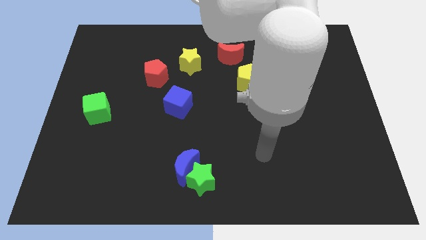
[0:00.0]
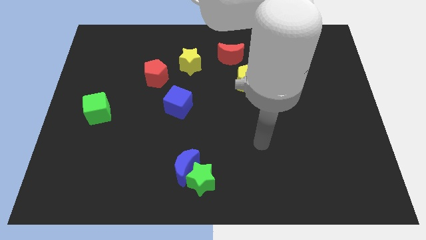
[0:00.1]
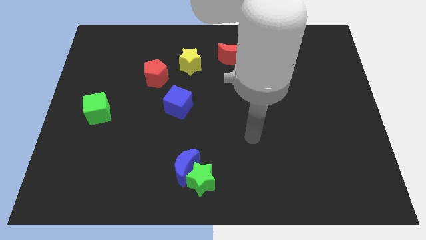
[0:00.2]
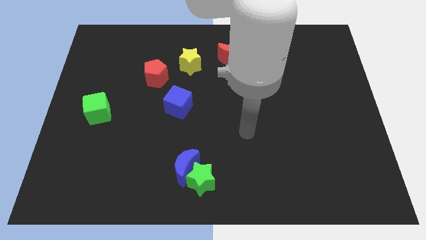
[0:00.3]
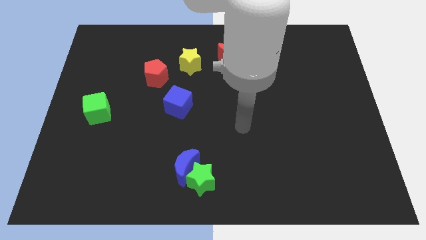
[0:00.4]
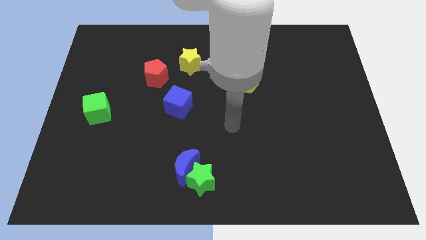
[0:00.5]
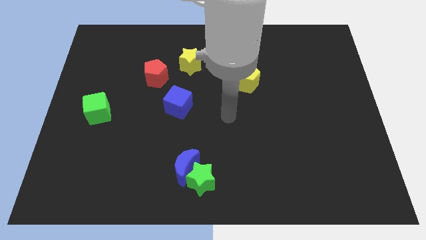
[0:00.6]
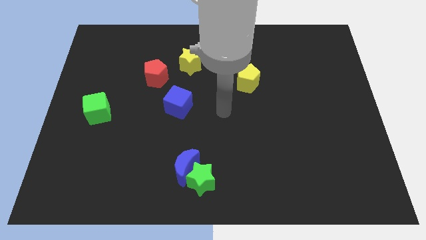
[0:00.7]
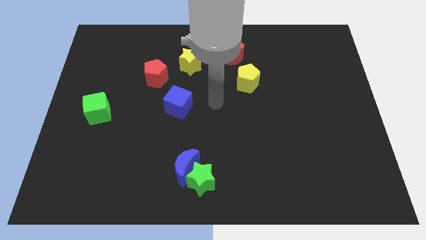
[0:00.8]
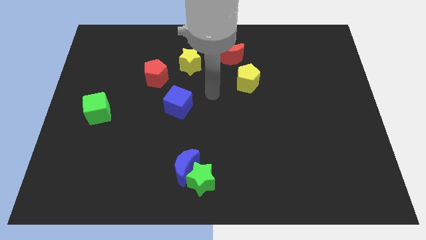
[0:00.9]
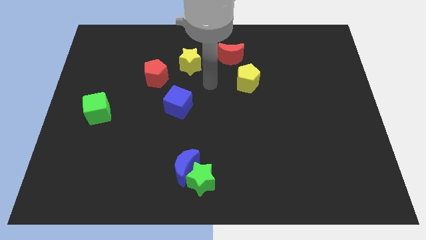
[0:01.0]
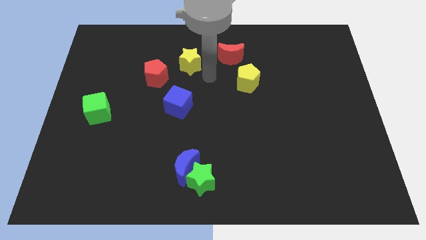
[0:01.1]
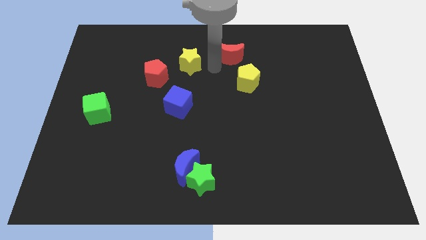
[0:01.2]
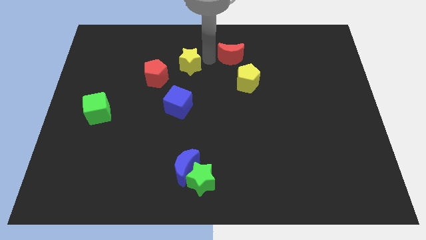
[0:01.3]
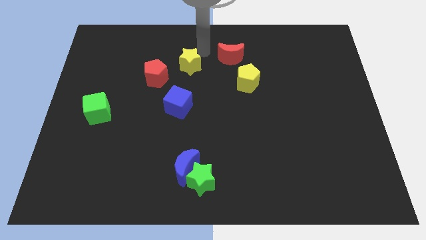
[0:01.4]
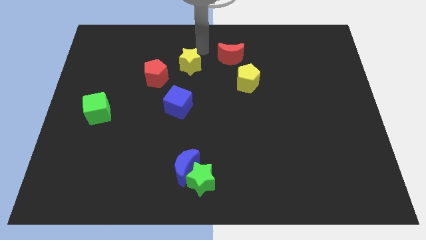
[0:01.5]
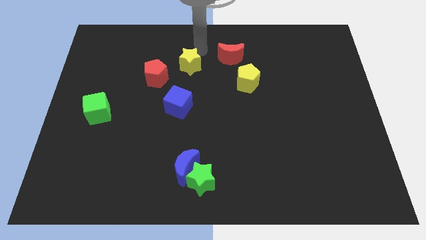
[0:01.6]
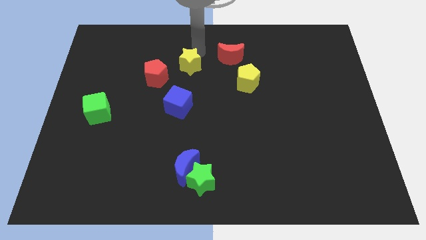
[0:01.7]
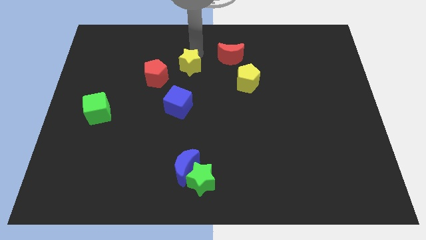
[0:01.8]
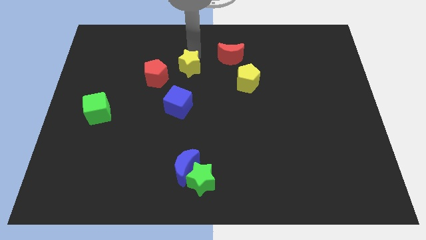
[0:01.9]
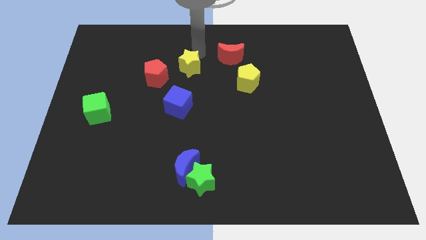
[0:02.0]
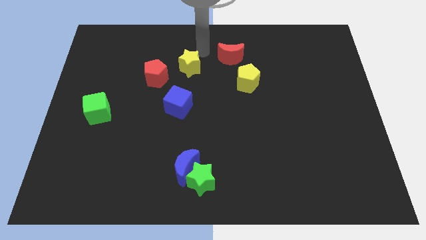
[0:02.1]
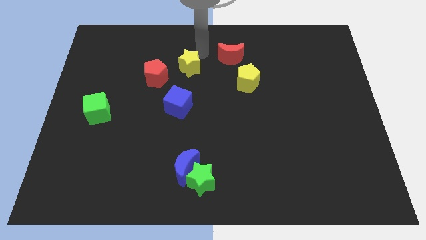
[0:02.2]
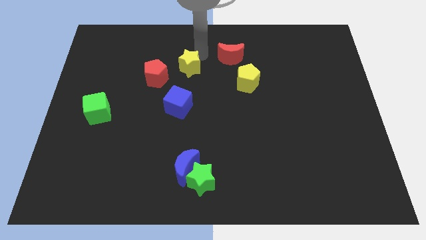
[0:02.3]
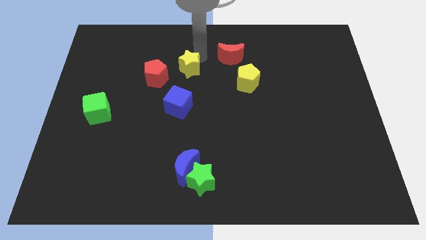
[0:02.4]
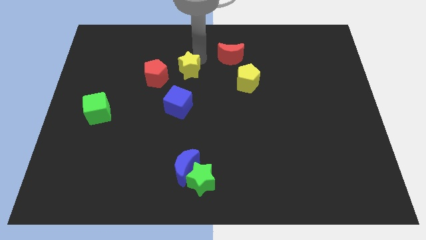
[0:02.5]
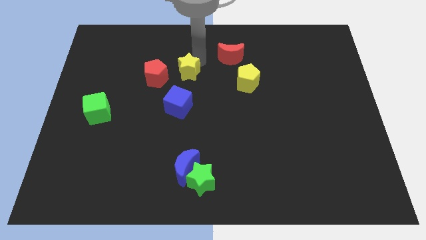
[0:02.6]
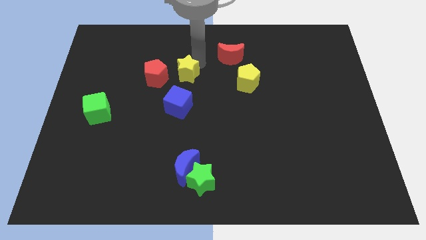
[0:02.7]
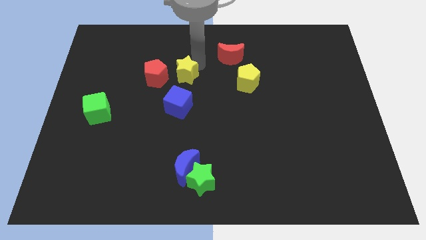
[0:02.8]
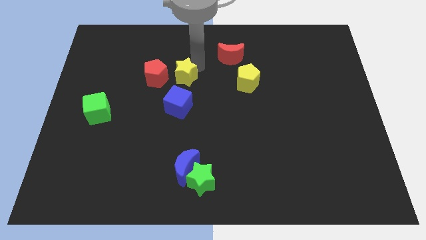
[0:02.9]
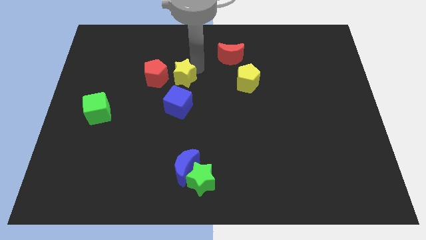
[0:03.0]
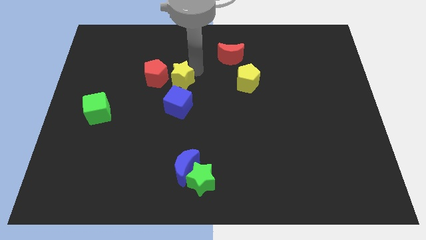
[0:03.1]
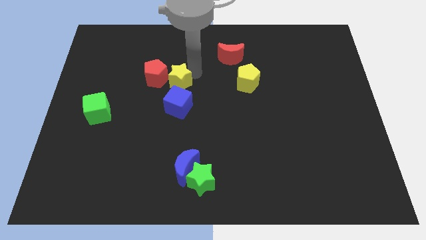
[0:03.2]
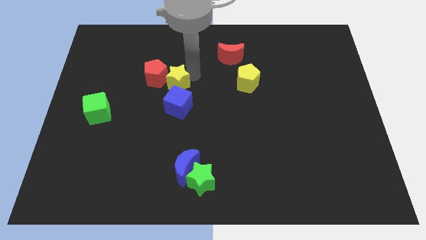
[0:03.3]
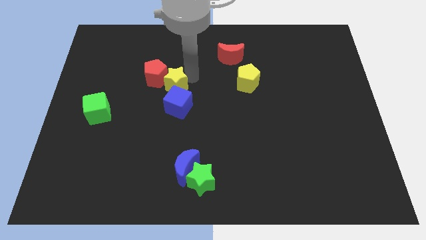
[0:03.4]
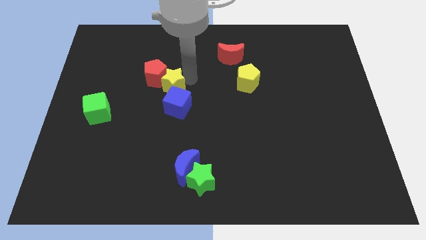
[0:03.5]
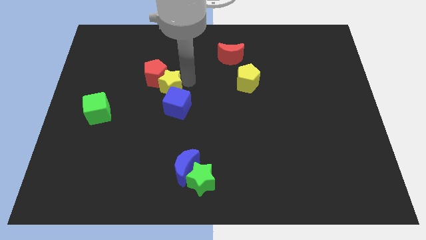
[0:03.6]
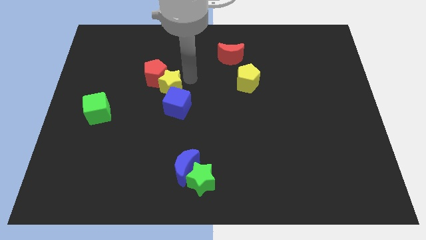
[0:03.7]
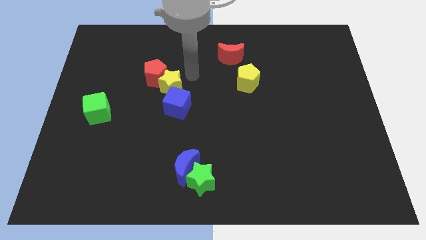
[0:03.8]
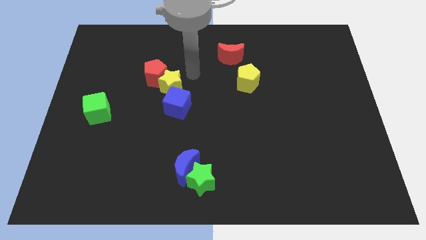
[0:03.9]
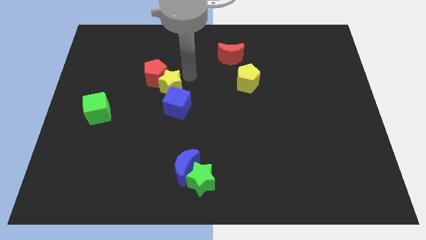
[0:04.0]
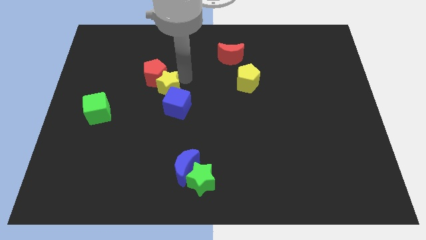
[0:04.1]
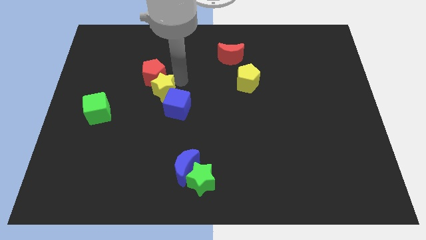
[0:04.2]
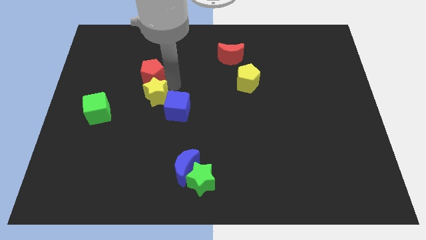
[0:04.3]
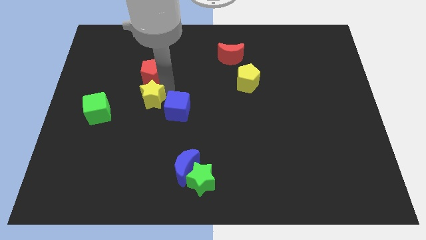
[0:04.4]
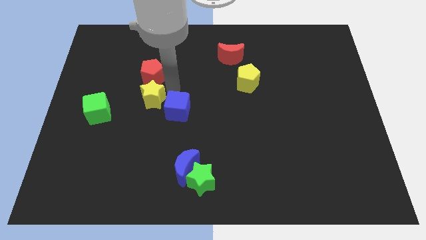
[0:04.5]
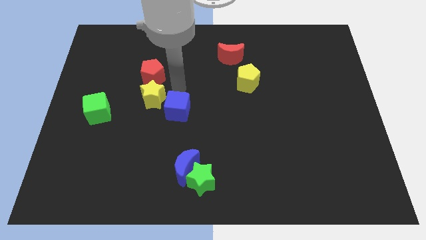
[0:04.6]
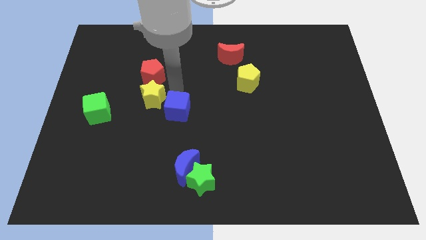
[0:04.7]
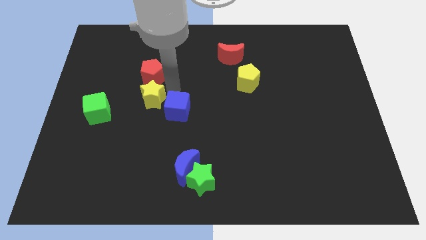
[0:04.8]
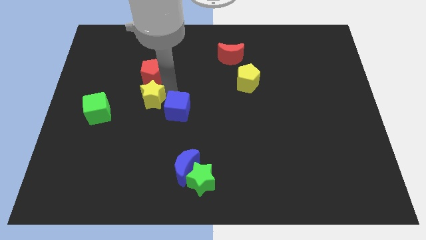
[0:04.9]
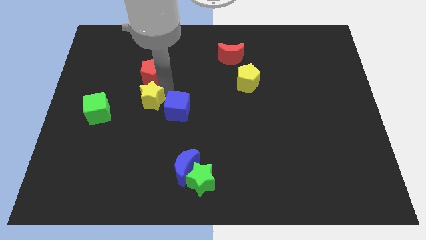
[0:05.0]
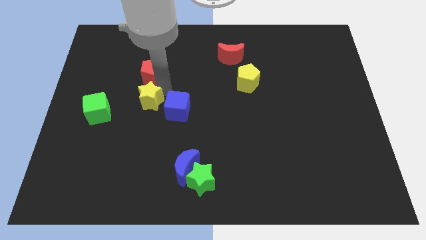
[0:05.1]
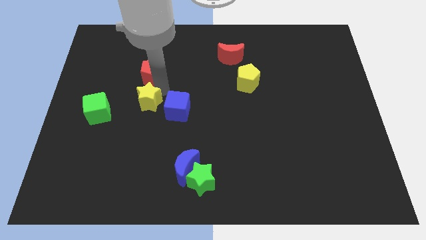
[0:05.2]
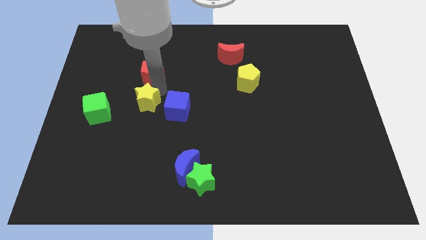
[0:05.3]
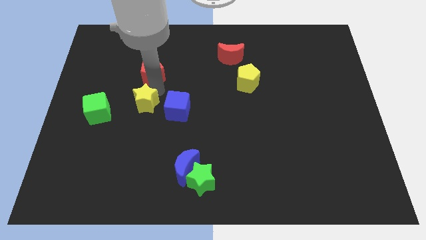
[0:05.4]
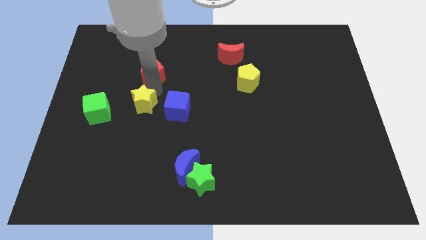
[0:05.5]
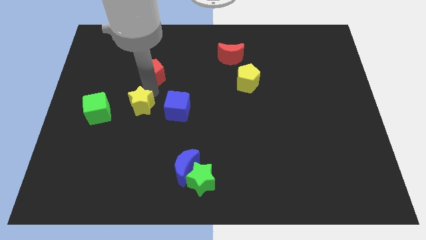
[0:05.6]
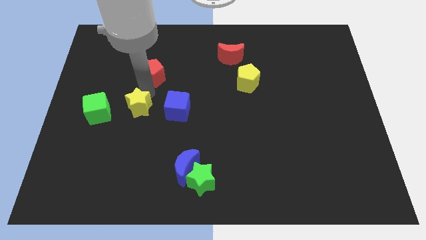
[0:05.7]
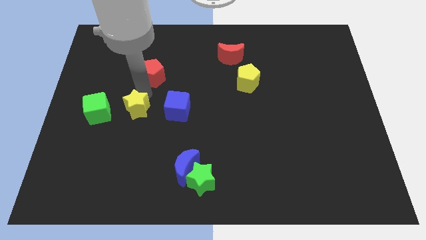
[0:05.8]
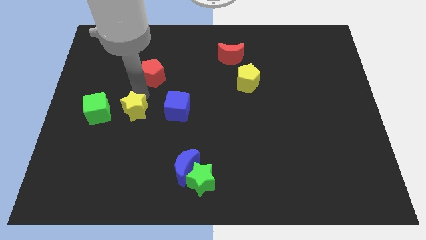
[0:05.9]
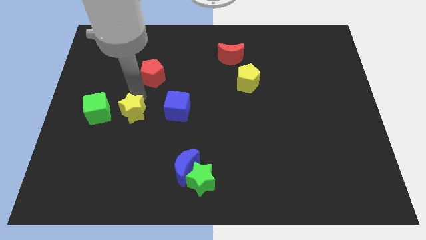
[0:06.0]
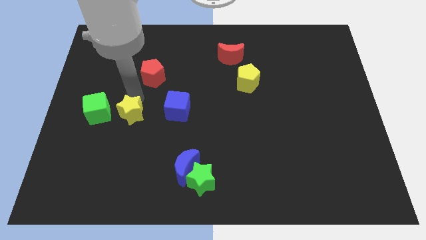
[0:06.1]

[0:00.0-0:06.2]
move the yellow star diagonally downwards and left

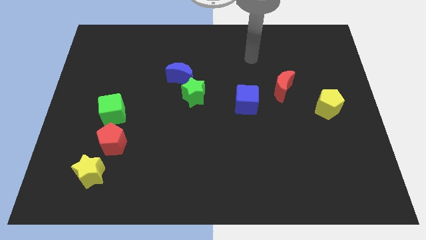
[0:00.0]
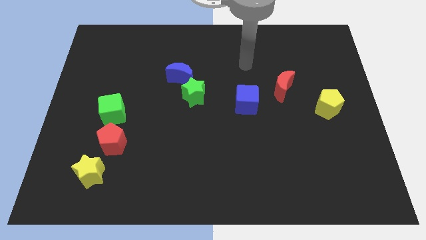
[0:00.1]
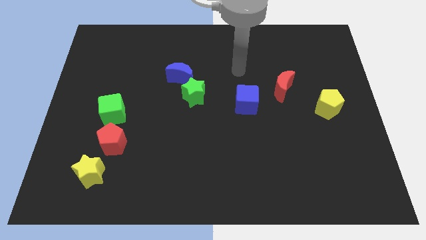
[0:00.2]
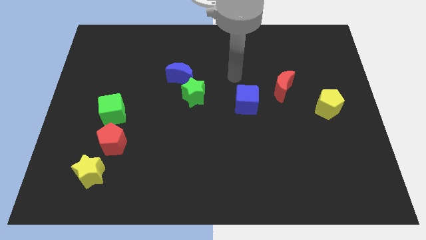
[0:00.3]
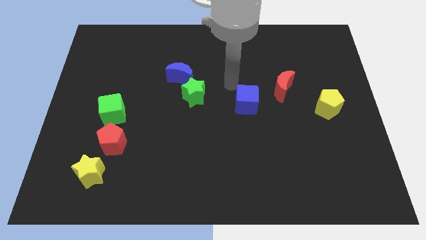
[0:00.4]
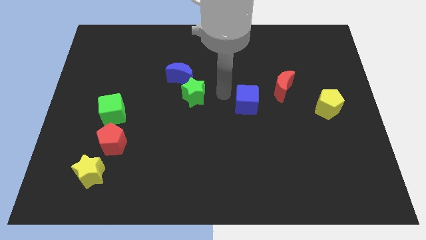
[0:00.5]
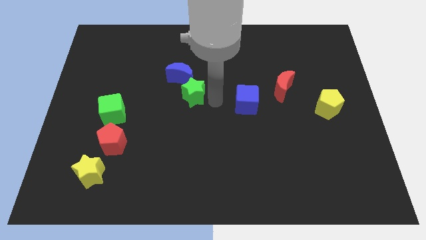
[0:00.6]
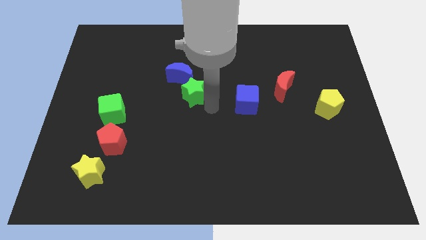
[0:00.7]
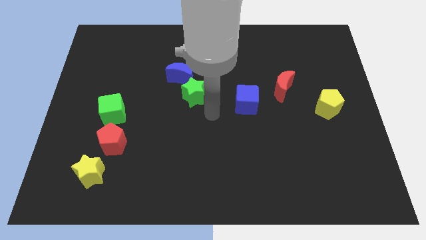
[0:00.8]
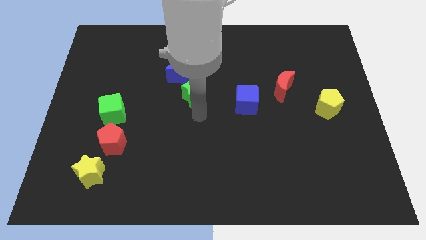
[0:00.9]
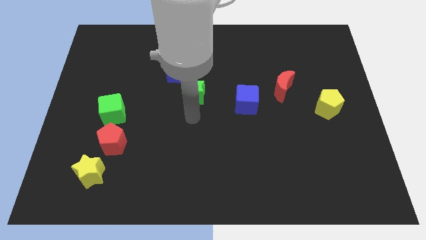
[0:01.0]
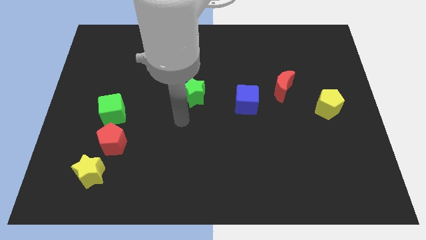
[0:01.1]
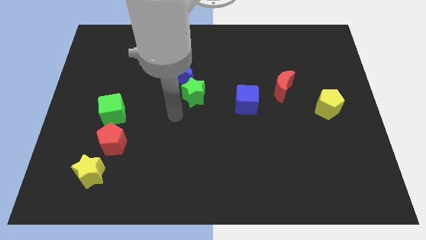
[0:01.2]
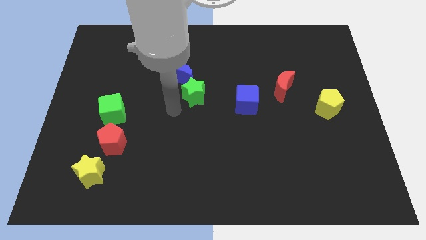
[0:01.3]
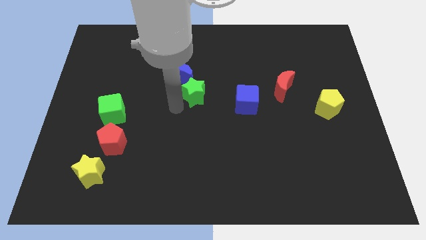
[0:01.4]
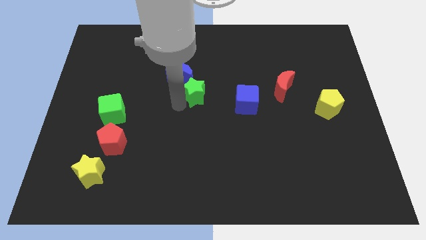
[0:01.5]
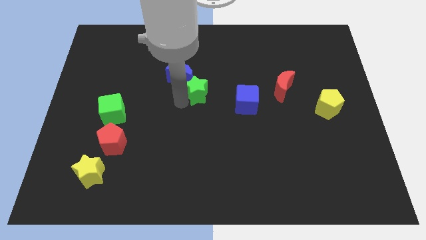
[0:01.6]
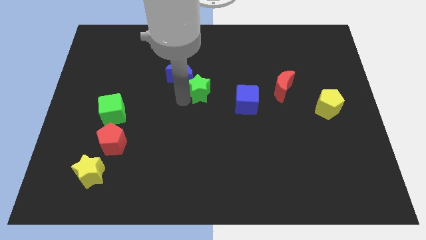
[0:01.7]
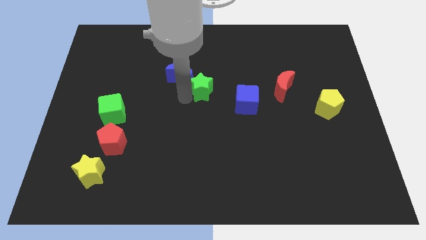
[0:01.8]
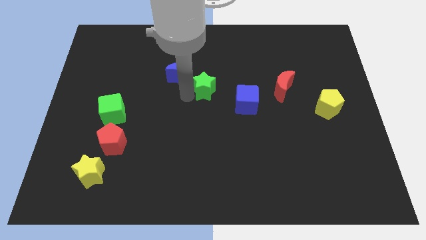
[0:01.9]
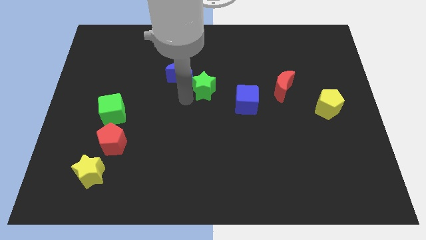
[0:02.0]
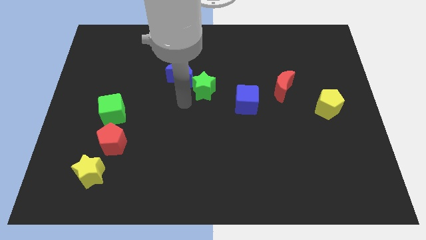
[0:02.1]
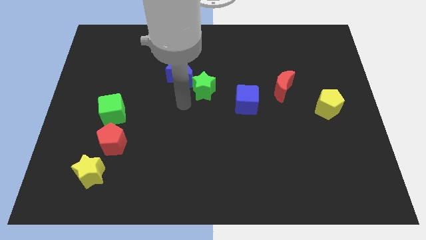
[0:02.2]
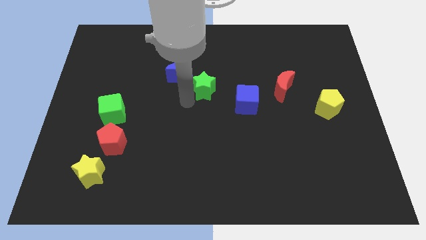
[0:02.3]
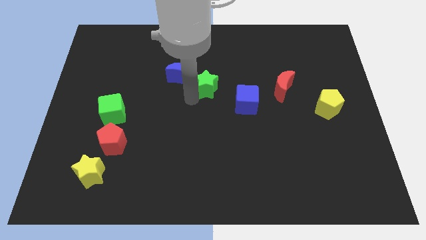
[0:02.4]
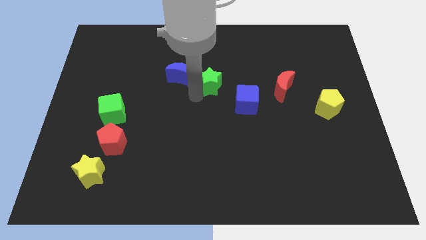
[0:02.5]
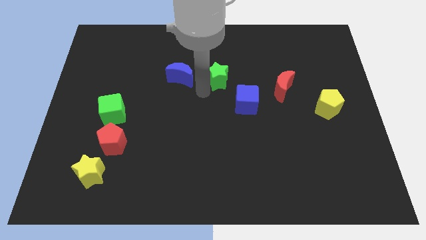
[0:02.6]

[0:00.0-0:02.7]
slightly push the green star upwards and then to the right
